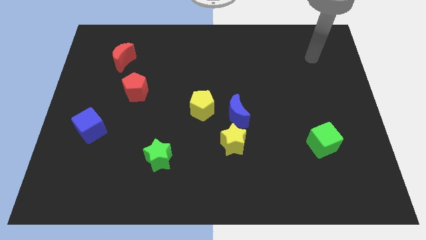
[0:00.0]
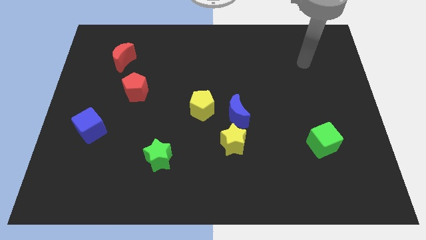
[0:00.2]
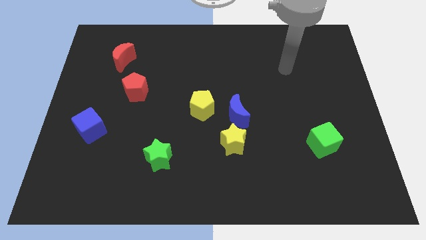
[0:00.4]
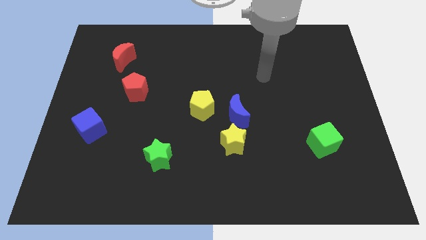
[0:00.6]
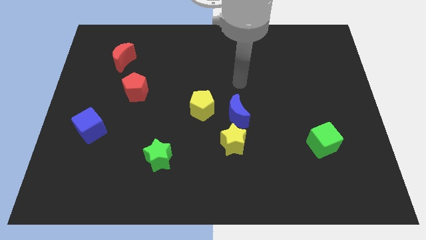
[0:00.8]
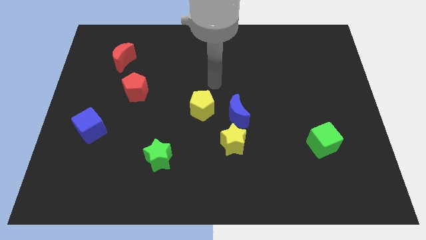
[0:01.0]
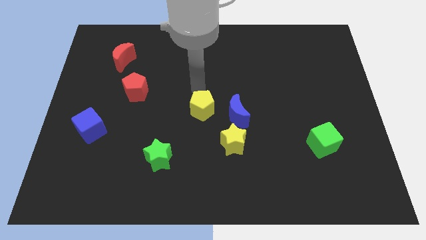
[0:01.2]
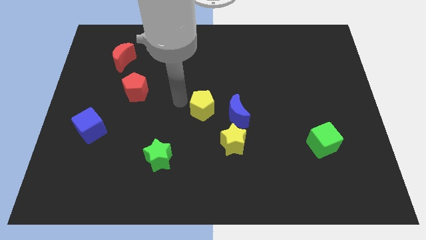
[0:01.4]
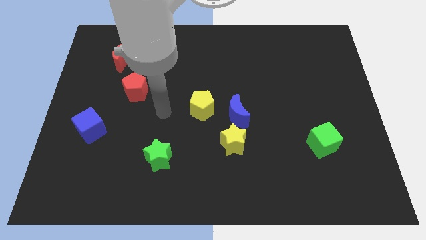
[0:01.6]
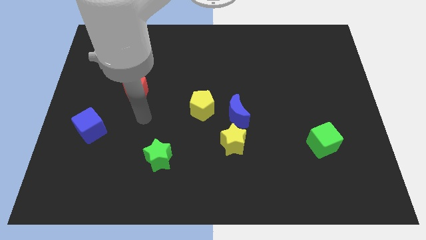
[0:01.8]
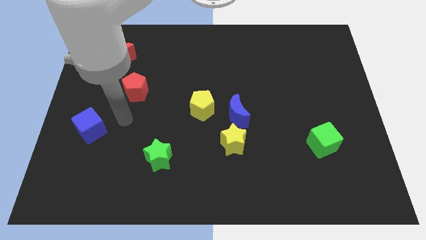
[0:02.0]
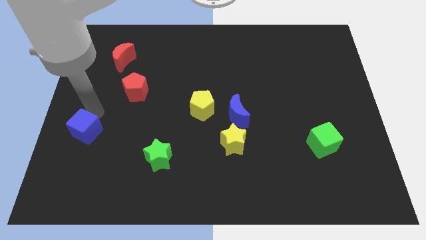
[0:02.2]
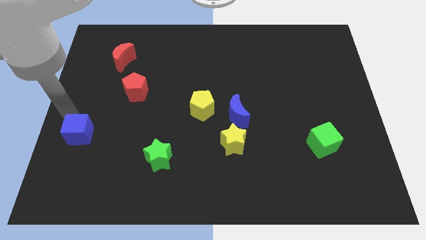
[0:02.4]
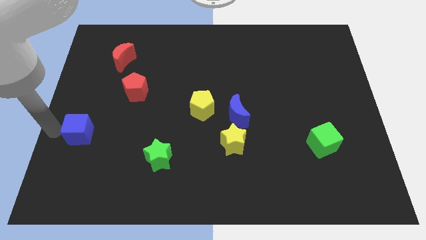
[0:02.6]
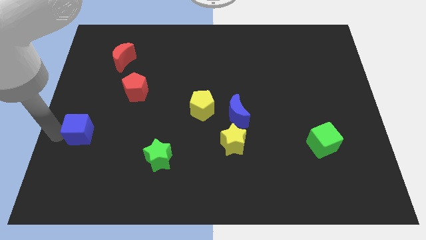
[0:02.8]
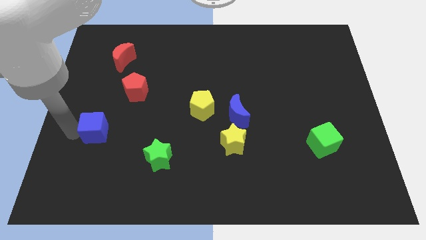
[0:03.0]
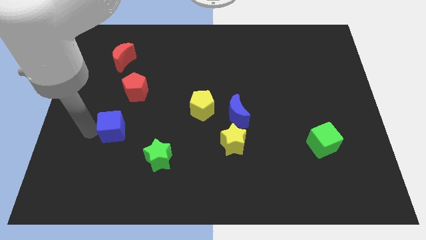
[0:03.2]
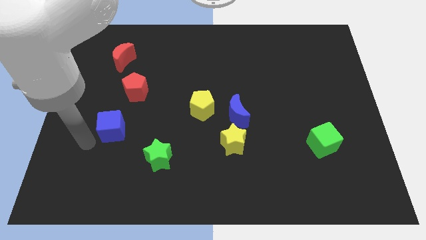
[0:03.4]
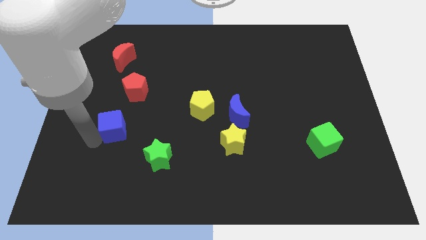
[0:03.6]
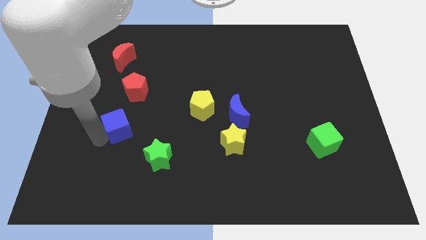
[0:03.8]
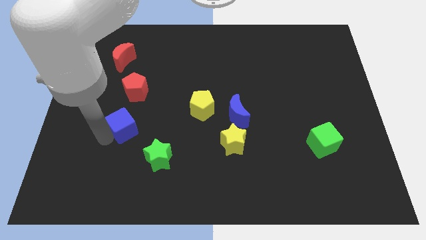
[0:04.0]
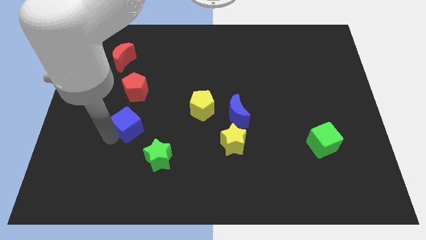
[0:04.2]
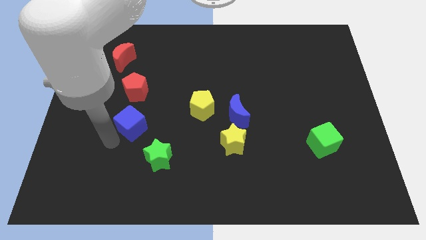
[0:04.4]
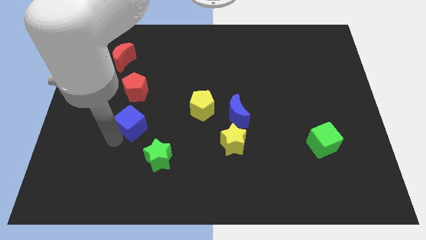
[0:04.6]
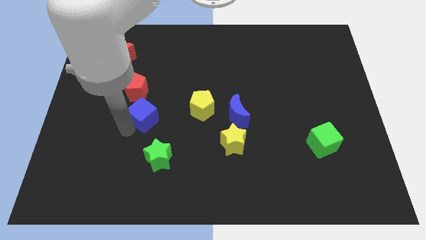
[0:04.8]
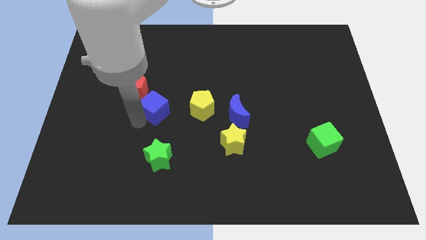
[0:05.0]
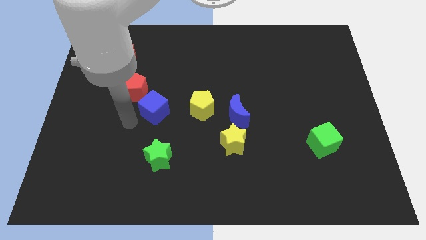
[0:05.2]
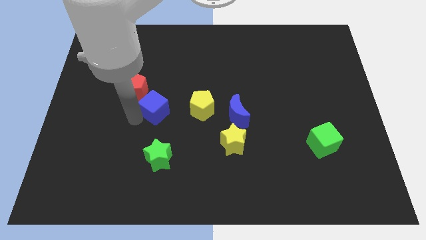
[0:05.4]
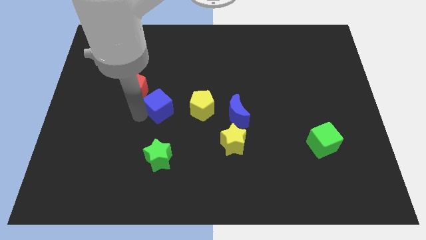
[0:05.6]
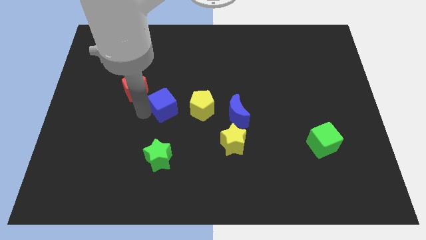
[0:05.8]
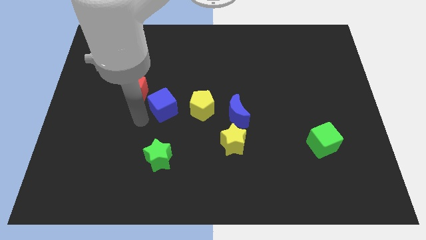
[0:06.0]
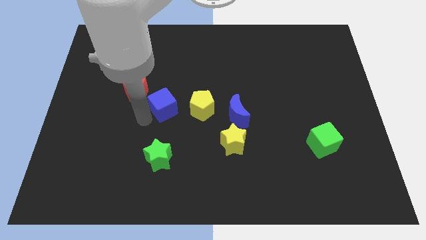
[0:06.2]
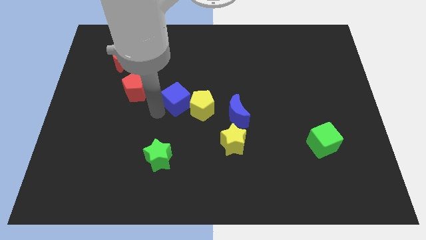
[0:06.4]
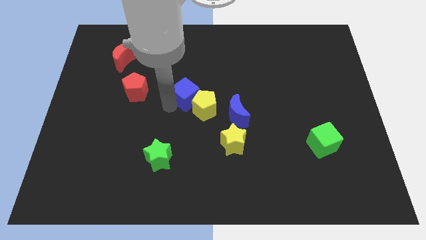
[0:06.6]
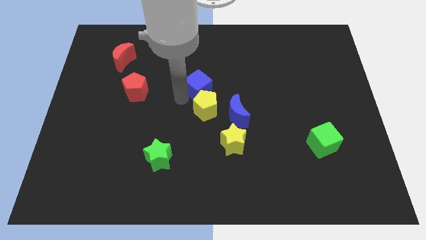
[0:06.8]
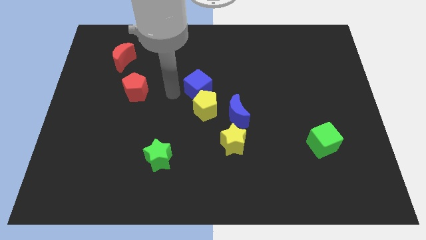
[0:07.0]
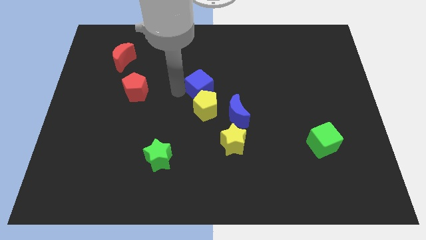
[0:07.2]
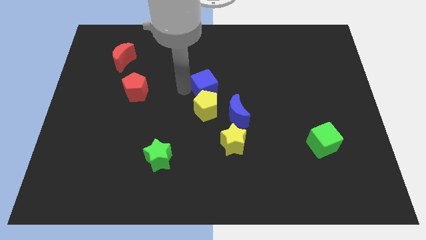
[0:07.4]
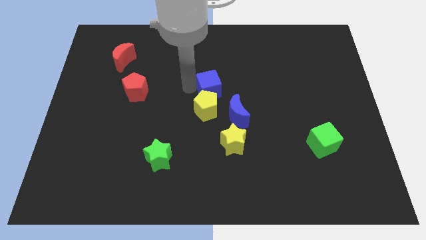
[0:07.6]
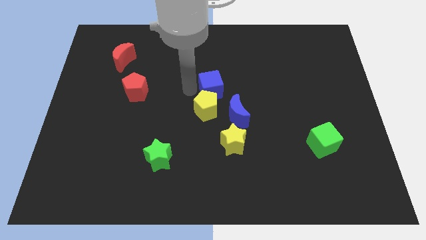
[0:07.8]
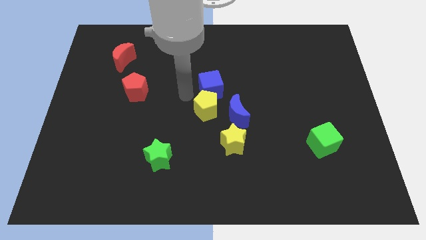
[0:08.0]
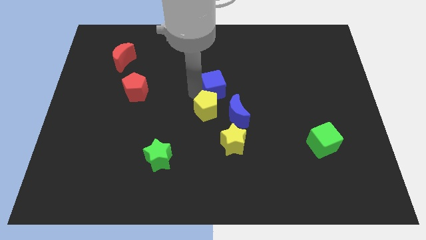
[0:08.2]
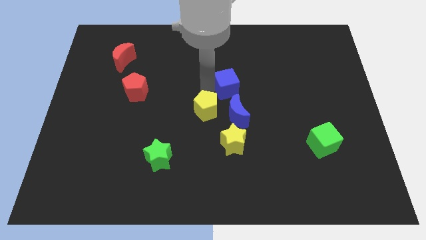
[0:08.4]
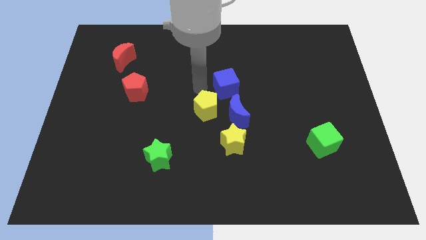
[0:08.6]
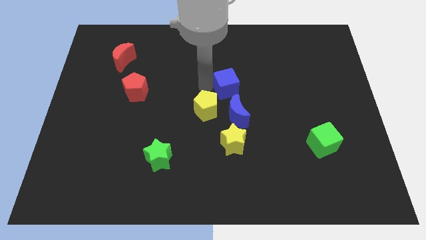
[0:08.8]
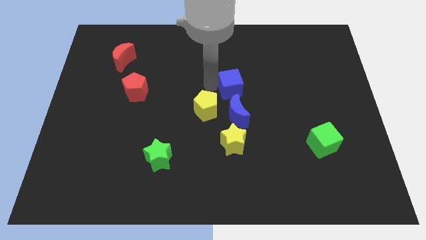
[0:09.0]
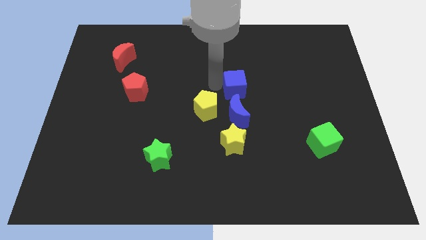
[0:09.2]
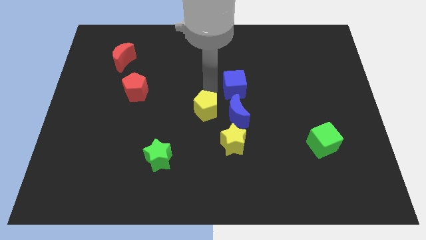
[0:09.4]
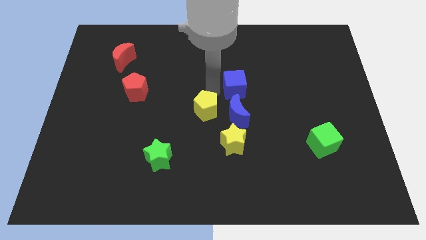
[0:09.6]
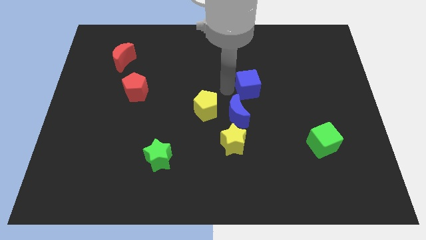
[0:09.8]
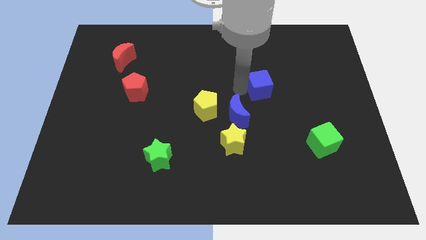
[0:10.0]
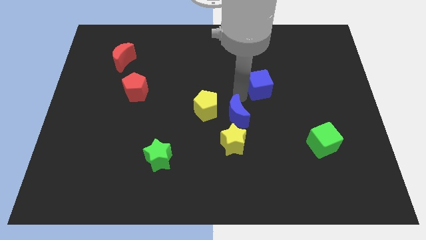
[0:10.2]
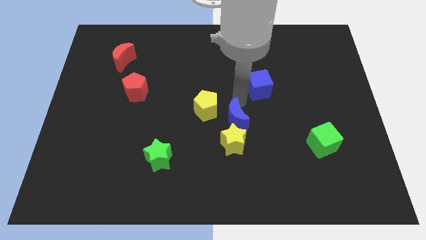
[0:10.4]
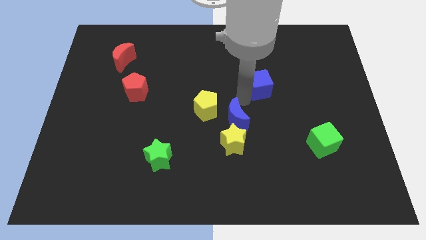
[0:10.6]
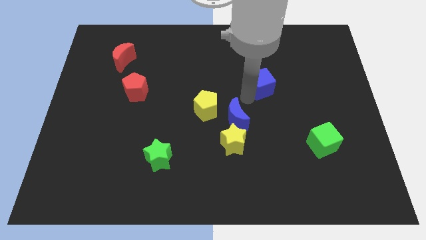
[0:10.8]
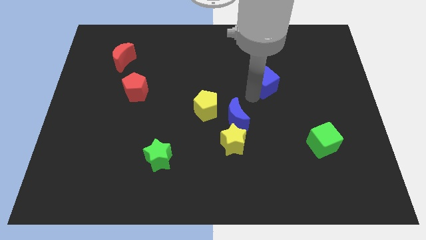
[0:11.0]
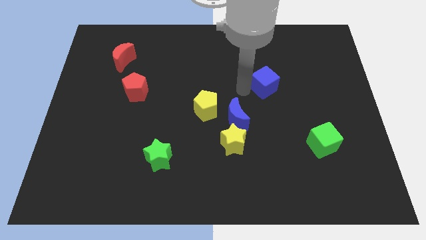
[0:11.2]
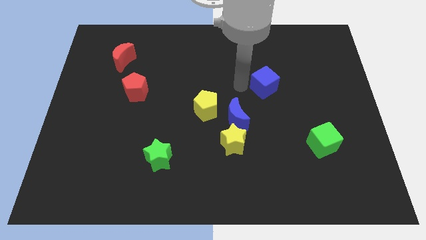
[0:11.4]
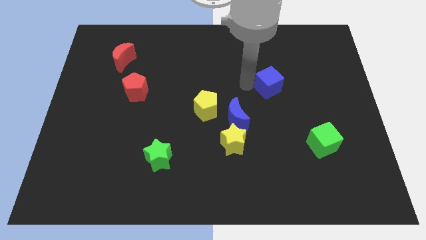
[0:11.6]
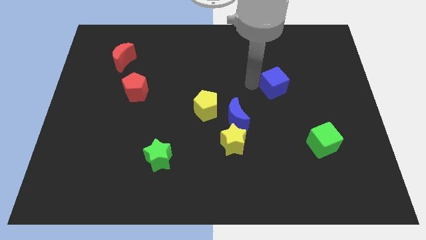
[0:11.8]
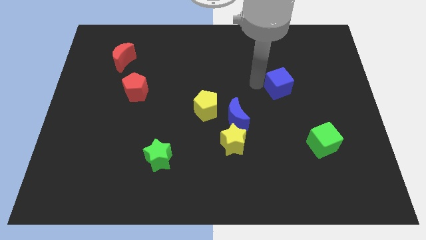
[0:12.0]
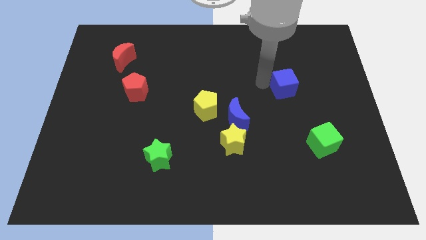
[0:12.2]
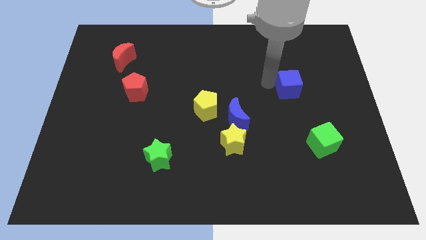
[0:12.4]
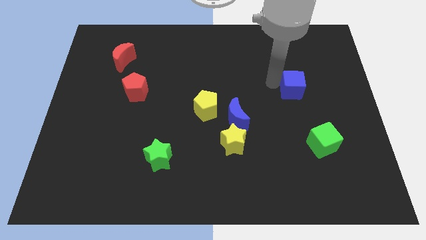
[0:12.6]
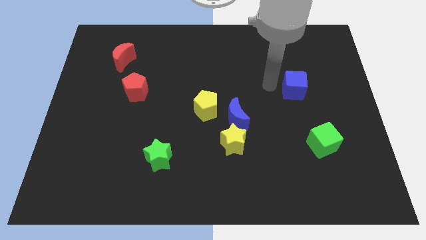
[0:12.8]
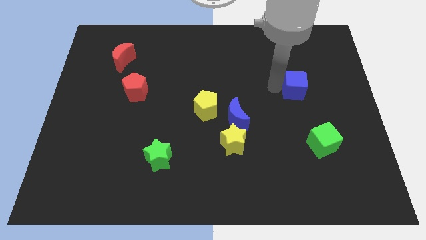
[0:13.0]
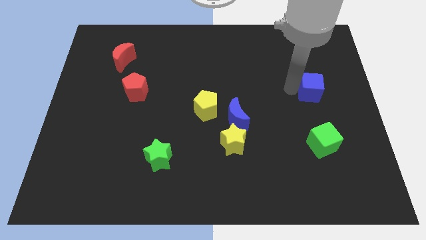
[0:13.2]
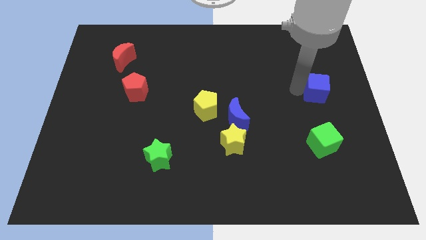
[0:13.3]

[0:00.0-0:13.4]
move the blue cube to the right side
